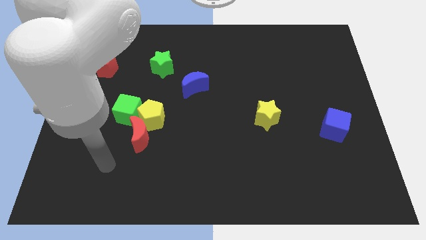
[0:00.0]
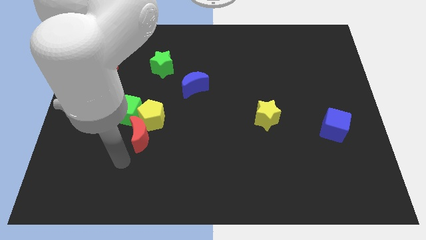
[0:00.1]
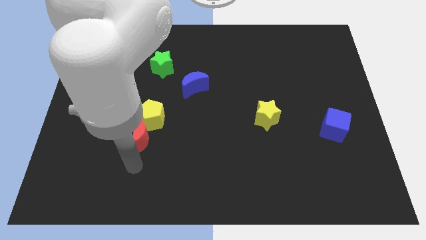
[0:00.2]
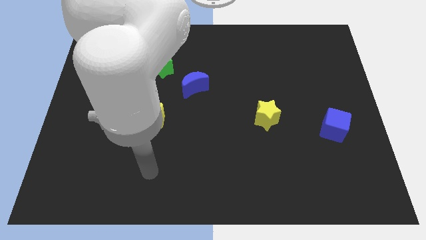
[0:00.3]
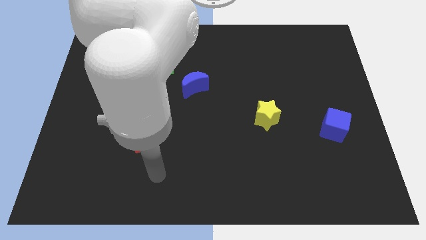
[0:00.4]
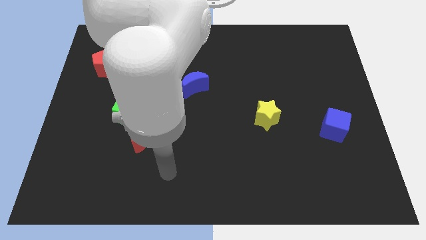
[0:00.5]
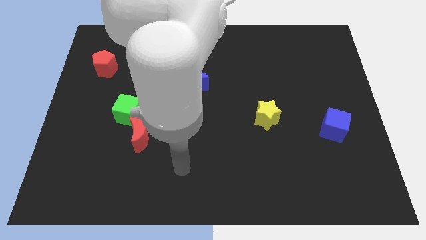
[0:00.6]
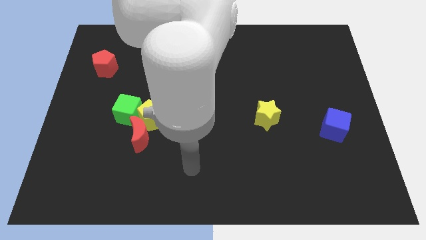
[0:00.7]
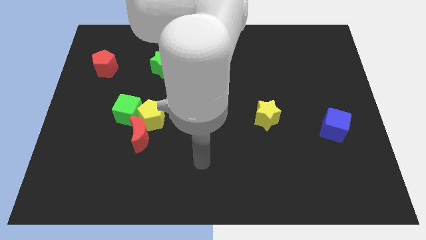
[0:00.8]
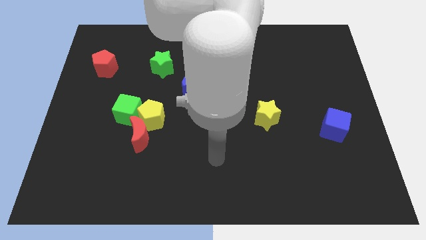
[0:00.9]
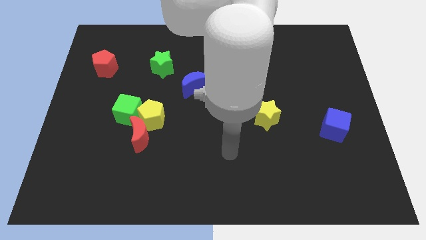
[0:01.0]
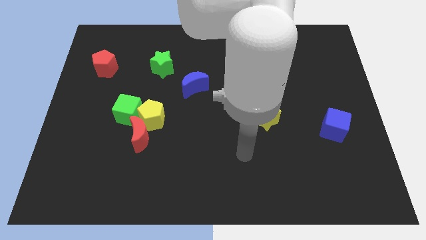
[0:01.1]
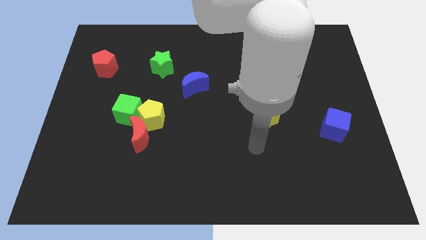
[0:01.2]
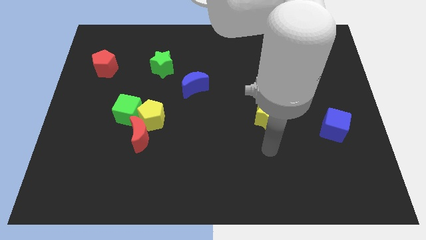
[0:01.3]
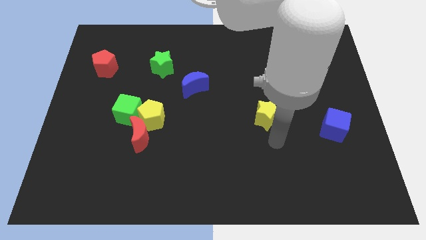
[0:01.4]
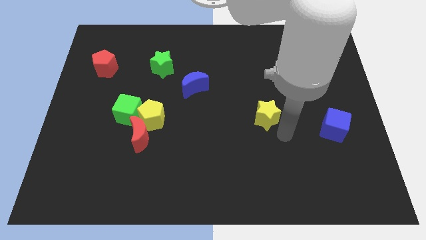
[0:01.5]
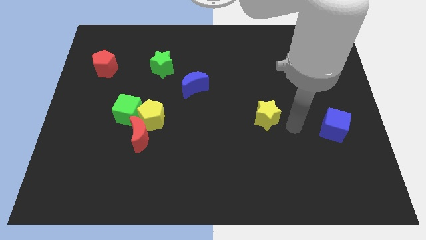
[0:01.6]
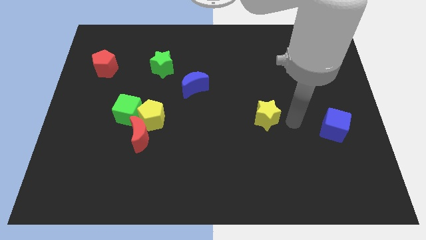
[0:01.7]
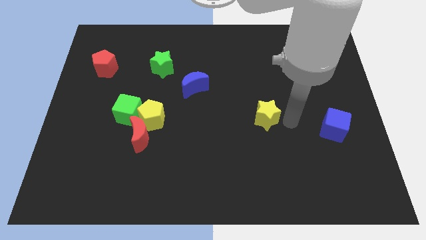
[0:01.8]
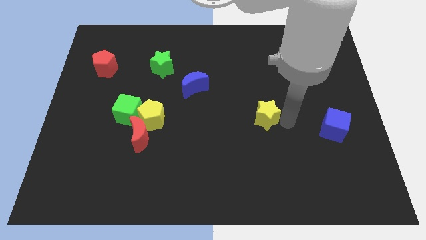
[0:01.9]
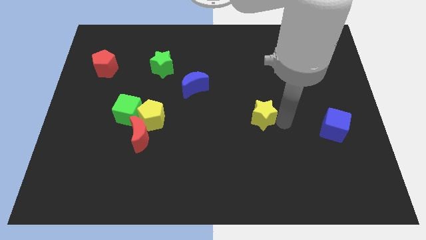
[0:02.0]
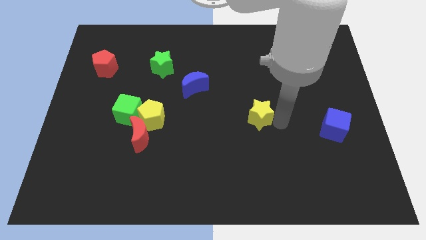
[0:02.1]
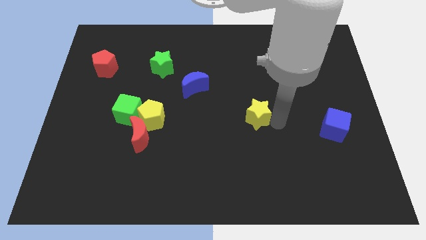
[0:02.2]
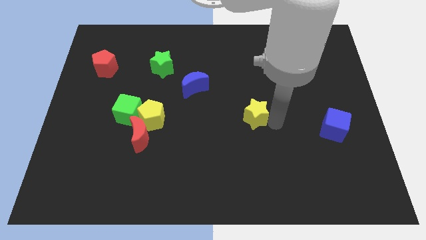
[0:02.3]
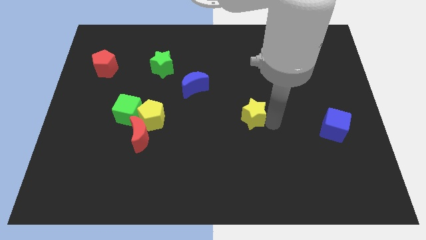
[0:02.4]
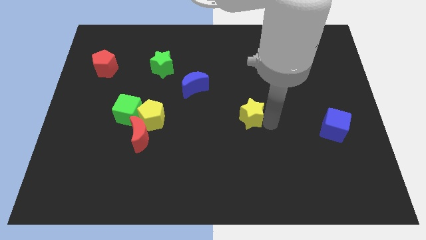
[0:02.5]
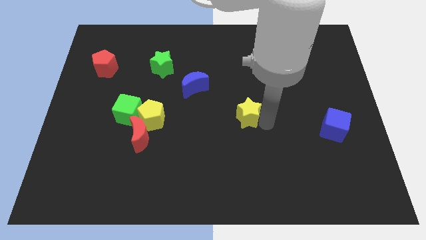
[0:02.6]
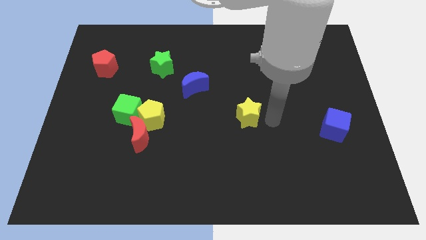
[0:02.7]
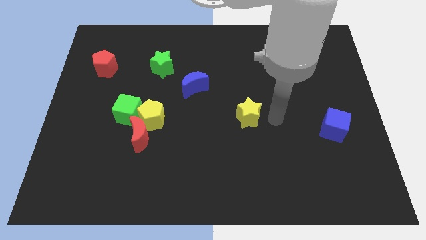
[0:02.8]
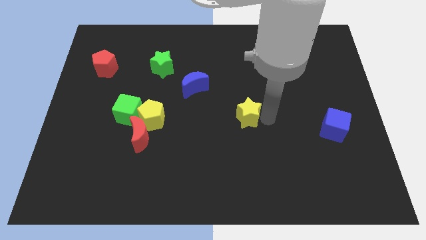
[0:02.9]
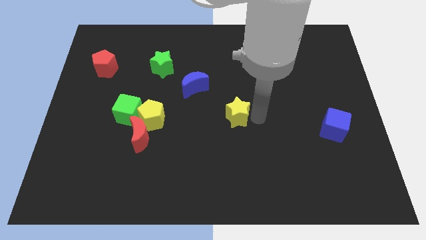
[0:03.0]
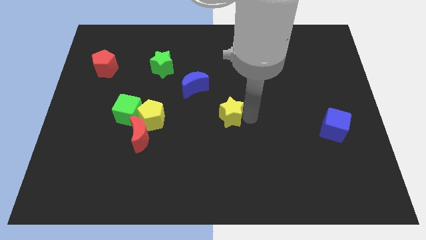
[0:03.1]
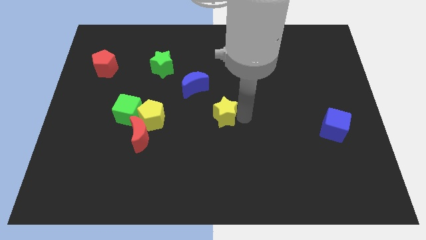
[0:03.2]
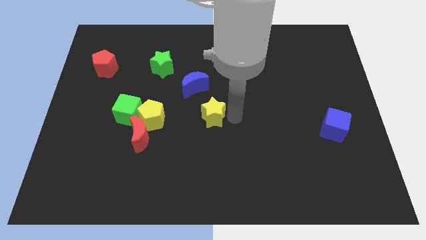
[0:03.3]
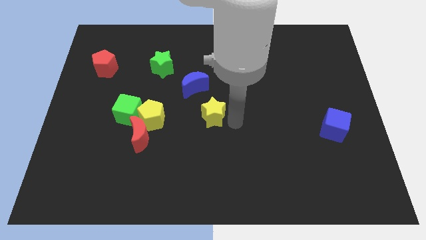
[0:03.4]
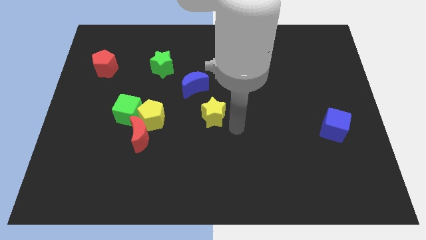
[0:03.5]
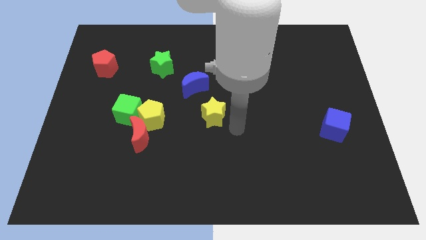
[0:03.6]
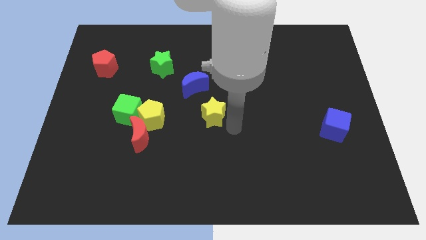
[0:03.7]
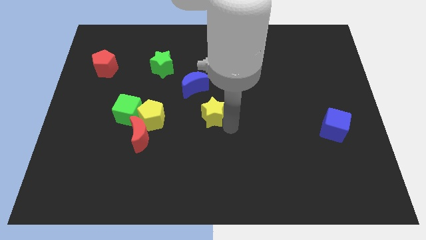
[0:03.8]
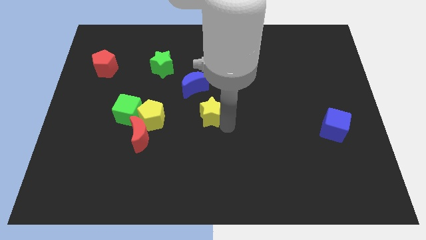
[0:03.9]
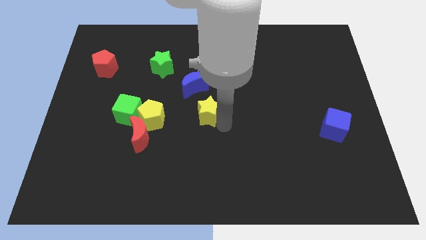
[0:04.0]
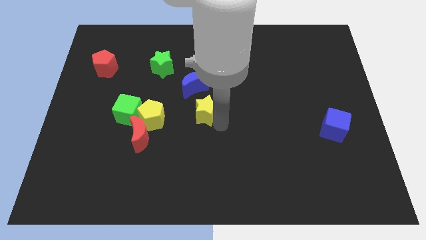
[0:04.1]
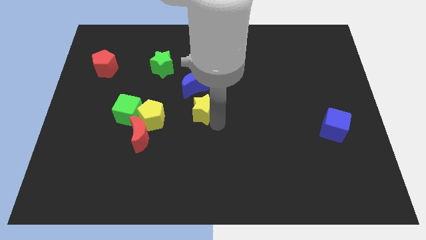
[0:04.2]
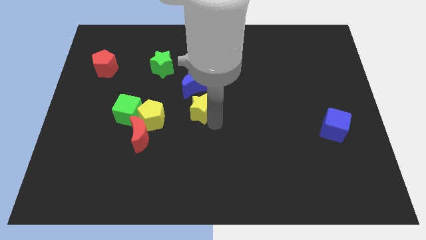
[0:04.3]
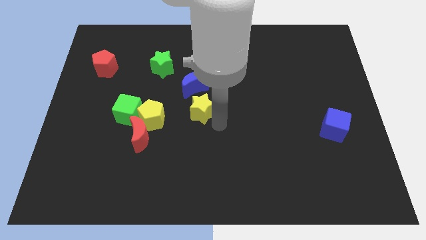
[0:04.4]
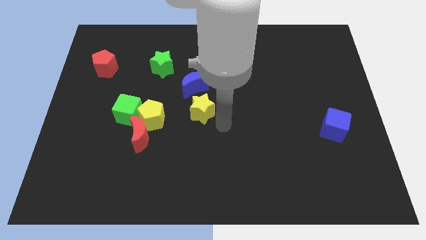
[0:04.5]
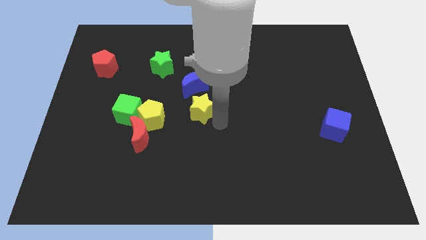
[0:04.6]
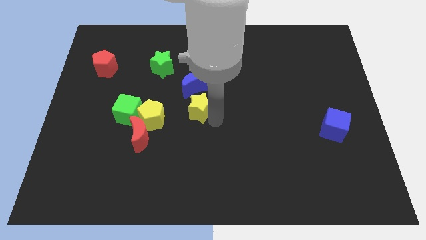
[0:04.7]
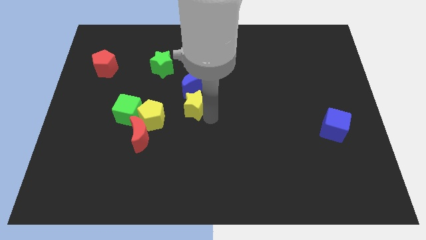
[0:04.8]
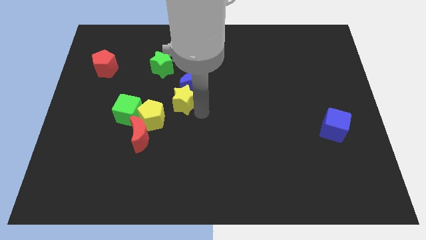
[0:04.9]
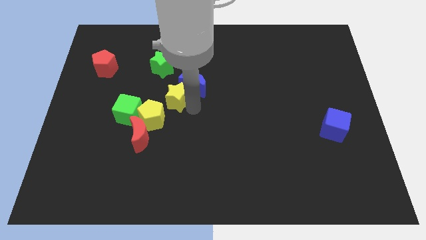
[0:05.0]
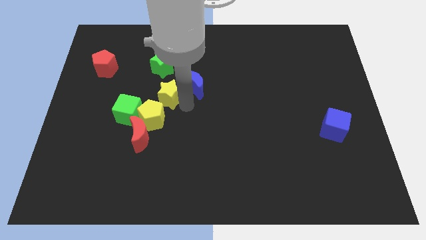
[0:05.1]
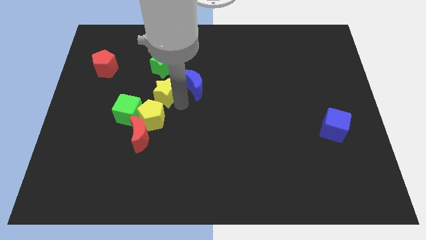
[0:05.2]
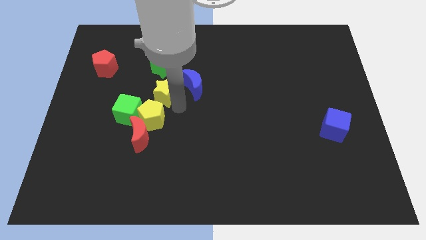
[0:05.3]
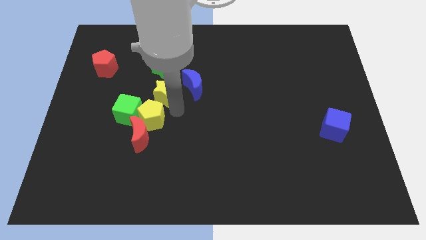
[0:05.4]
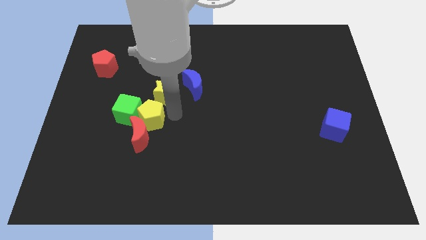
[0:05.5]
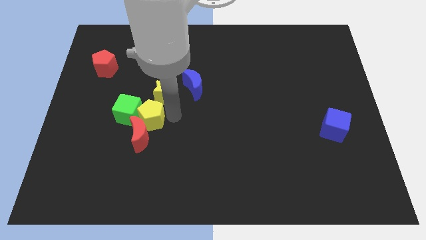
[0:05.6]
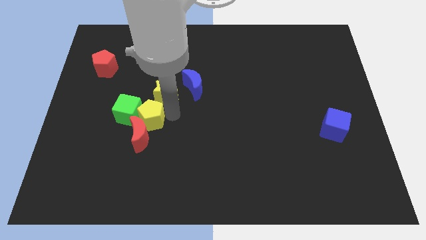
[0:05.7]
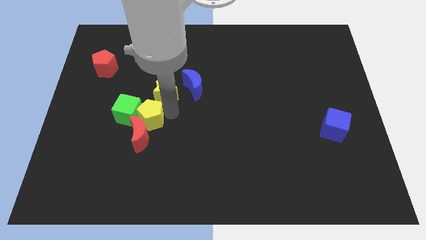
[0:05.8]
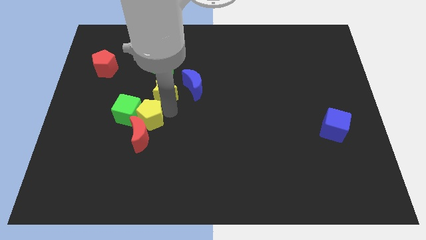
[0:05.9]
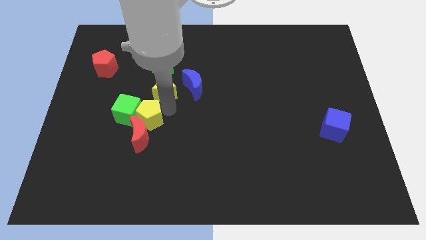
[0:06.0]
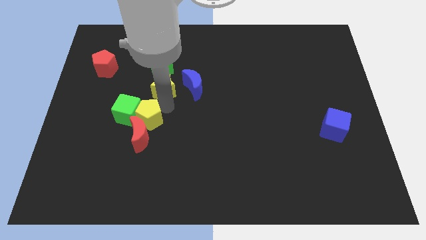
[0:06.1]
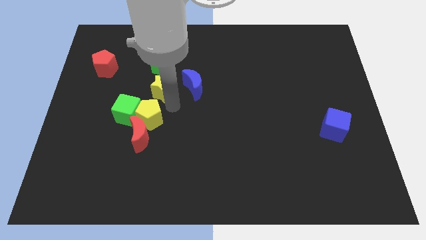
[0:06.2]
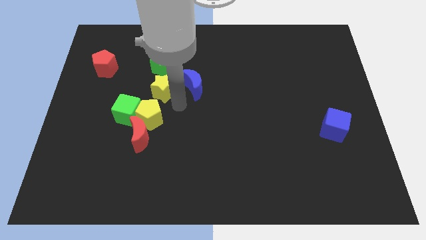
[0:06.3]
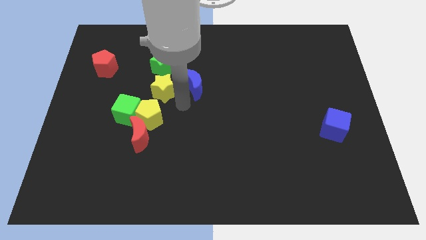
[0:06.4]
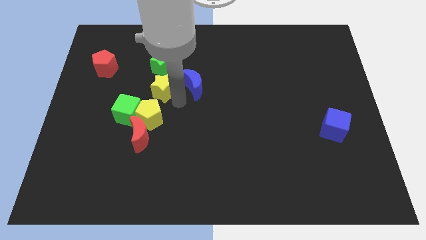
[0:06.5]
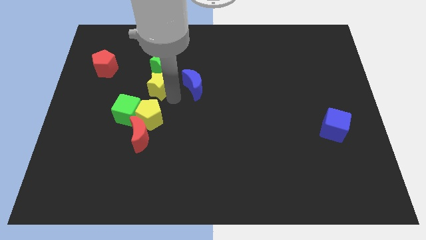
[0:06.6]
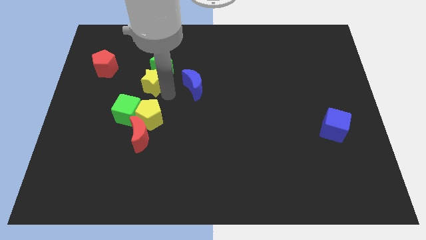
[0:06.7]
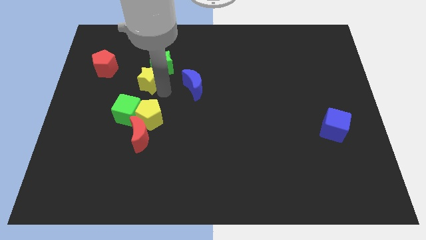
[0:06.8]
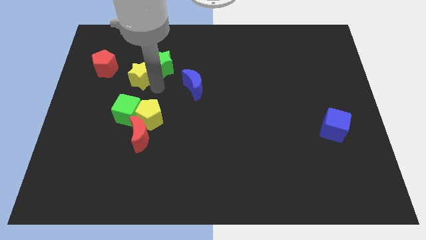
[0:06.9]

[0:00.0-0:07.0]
put the yellow star just left of the green star
